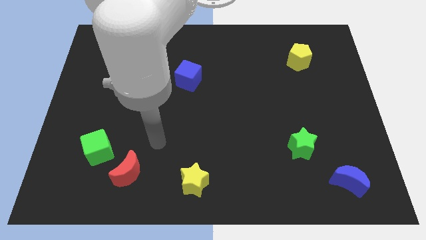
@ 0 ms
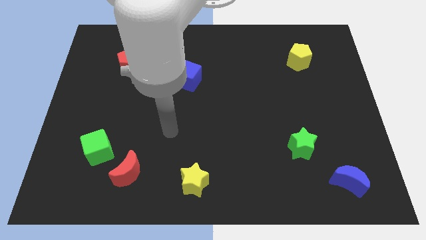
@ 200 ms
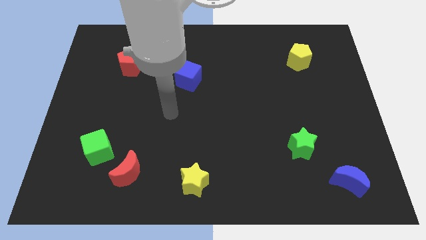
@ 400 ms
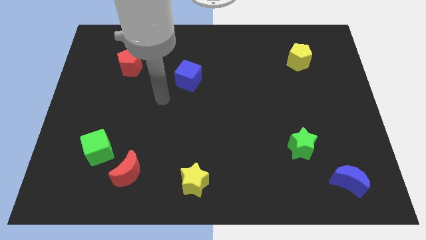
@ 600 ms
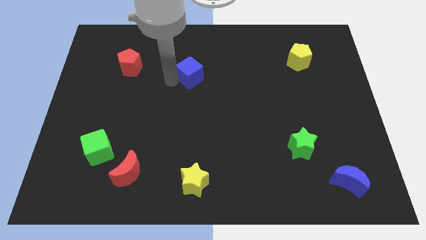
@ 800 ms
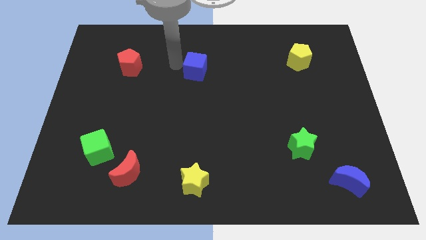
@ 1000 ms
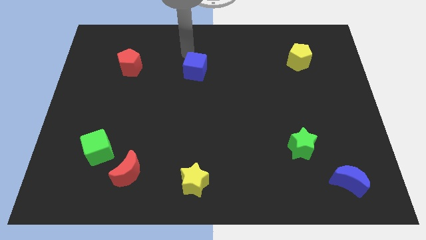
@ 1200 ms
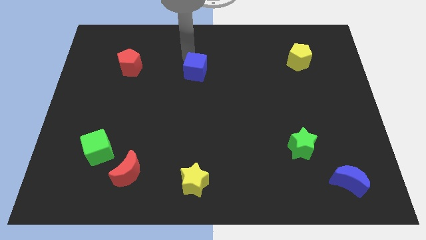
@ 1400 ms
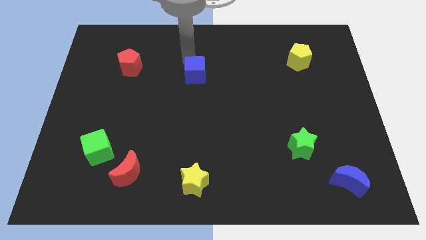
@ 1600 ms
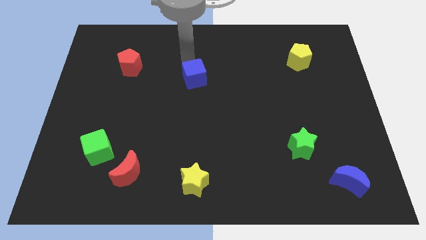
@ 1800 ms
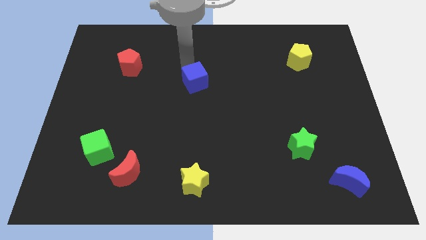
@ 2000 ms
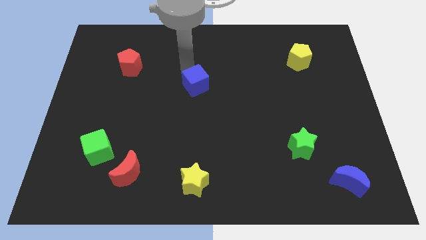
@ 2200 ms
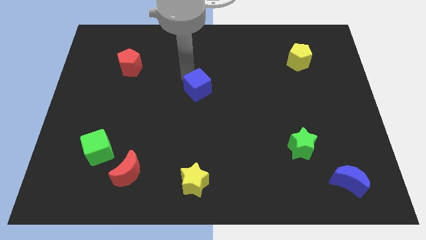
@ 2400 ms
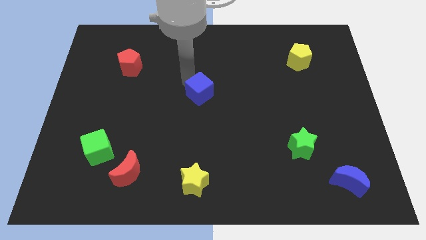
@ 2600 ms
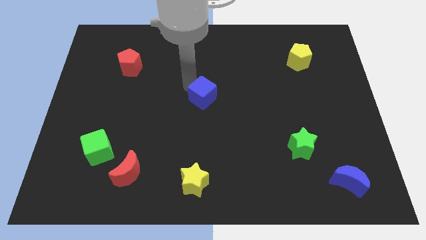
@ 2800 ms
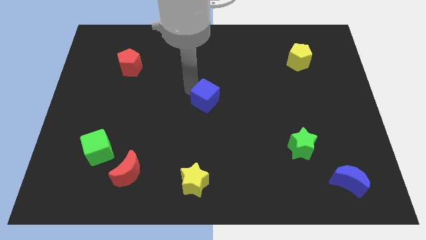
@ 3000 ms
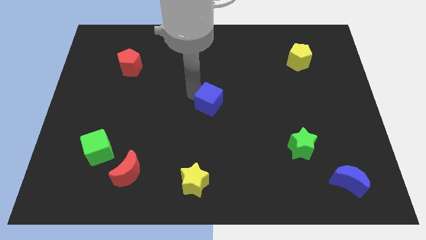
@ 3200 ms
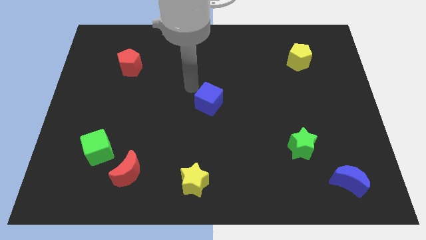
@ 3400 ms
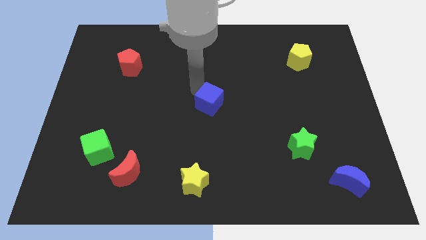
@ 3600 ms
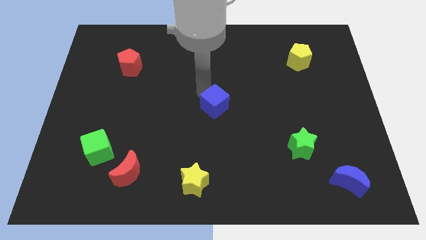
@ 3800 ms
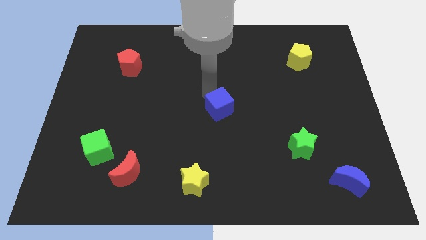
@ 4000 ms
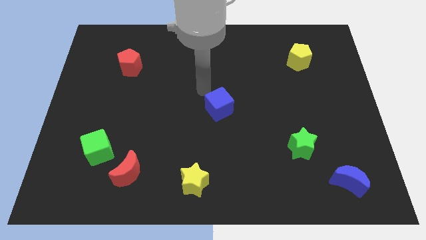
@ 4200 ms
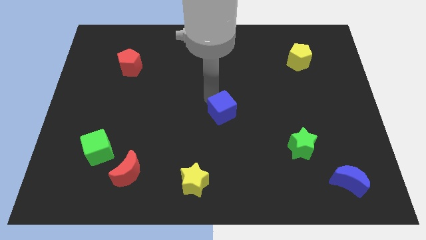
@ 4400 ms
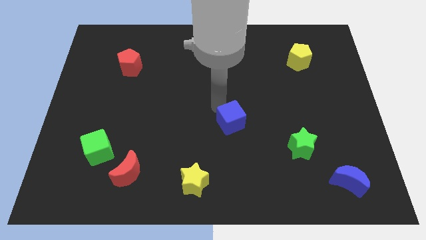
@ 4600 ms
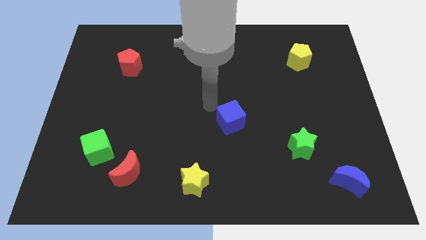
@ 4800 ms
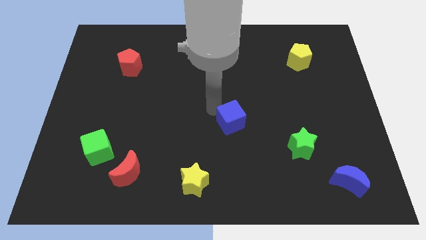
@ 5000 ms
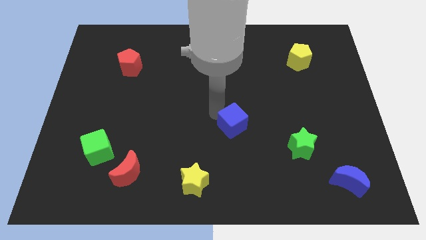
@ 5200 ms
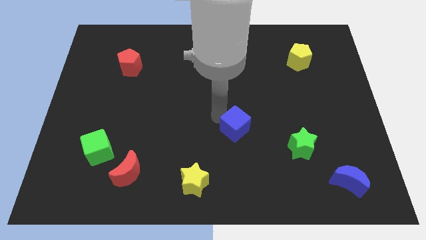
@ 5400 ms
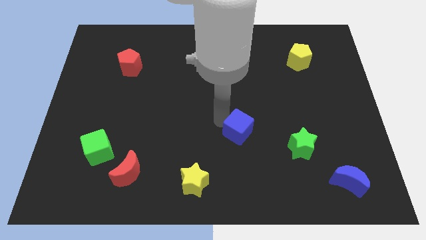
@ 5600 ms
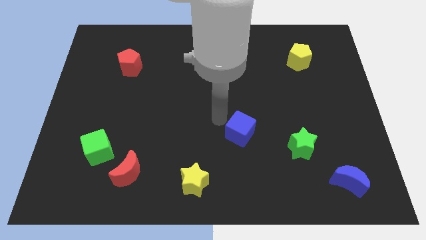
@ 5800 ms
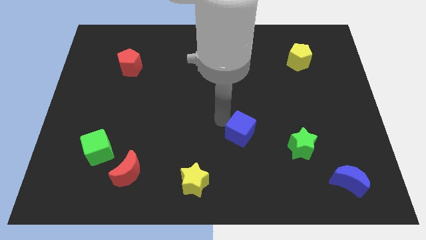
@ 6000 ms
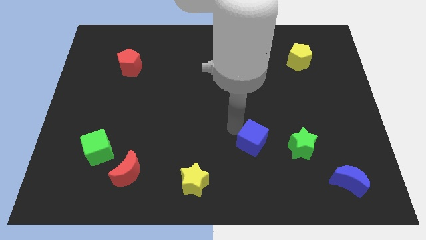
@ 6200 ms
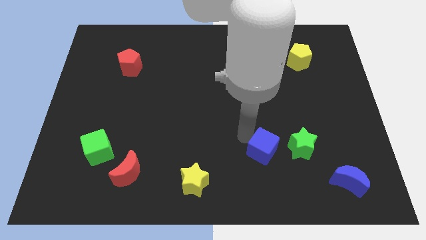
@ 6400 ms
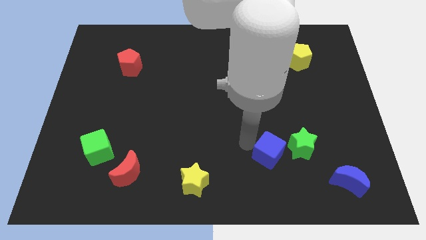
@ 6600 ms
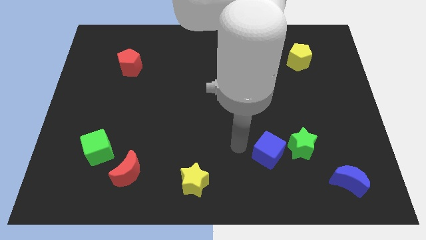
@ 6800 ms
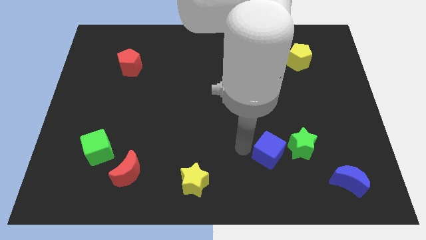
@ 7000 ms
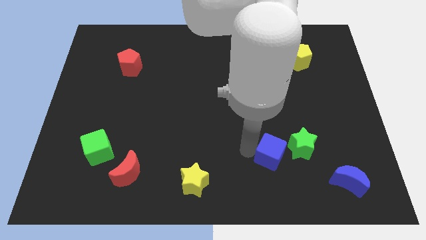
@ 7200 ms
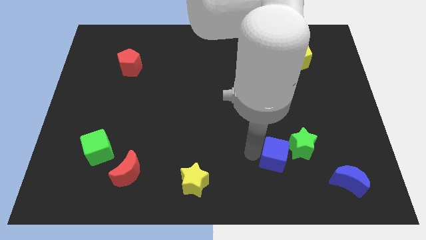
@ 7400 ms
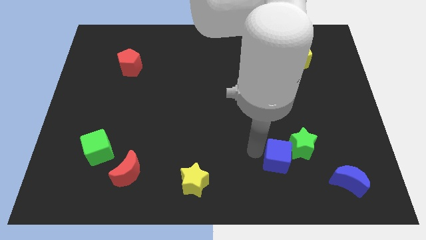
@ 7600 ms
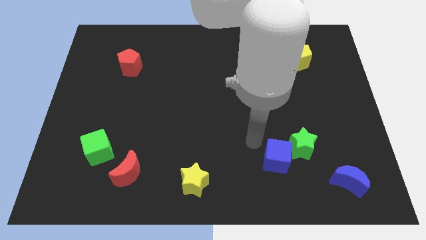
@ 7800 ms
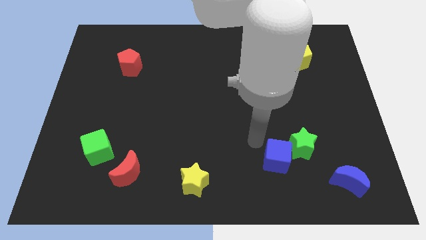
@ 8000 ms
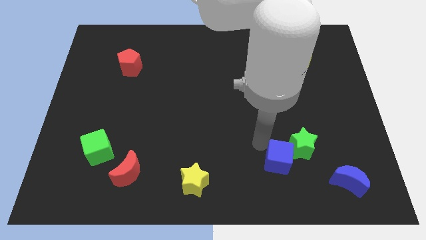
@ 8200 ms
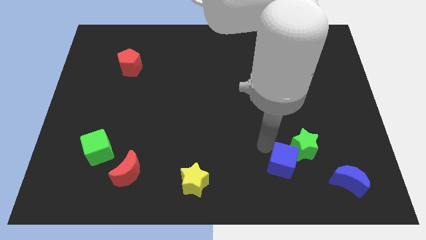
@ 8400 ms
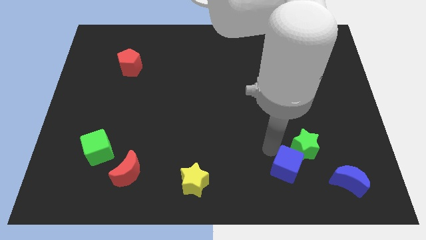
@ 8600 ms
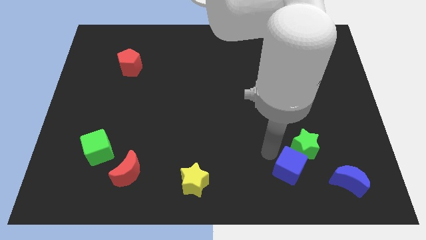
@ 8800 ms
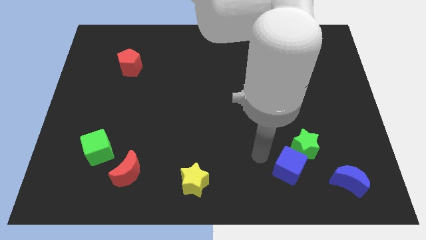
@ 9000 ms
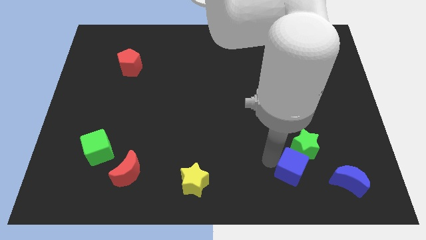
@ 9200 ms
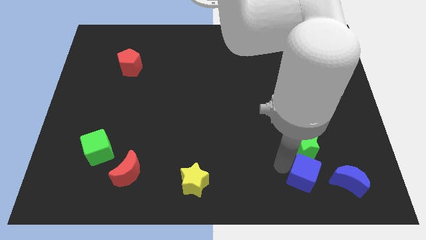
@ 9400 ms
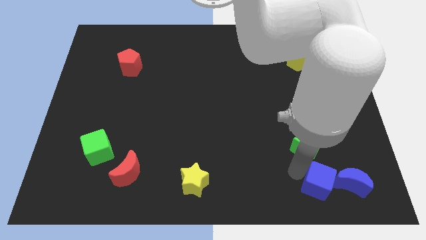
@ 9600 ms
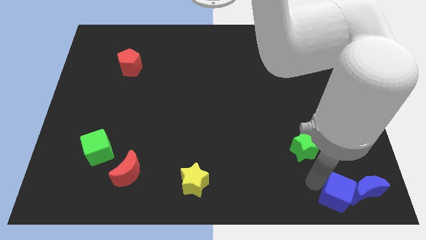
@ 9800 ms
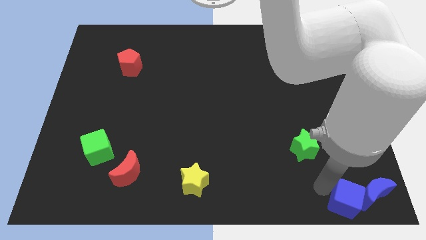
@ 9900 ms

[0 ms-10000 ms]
move the blue cube to the lower right corner

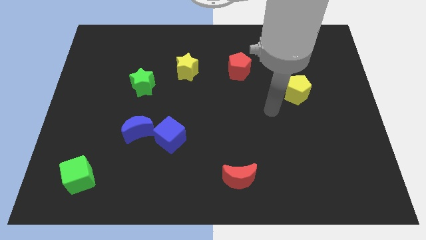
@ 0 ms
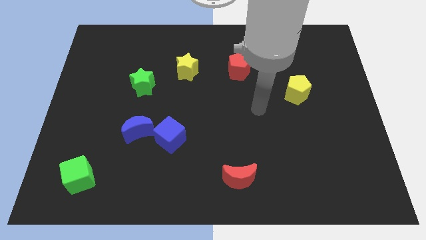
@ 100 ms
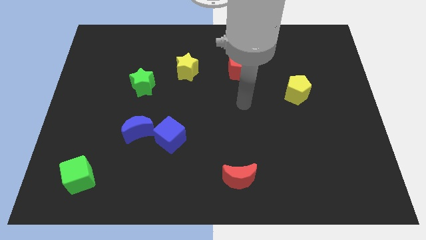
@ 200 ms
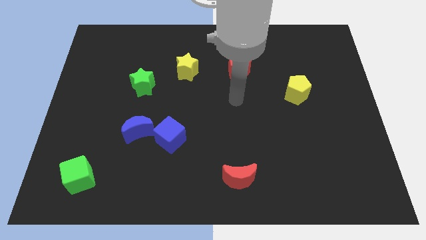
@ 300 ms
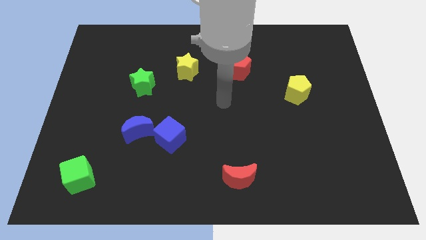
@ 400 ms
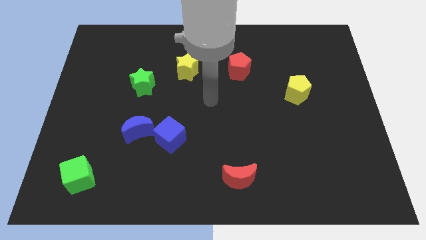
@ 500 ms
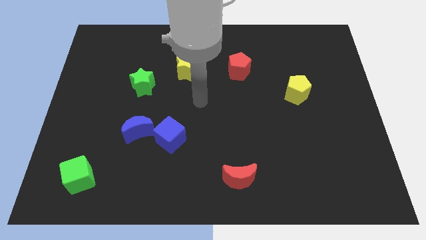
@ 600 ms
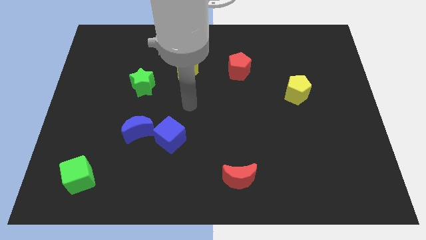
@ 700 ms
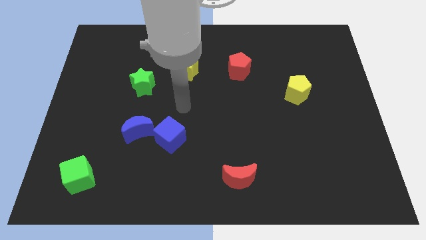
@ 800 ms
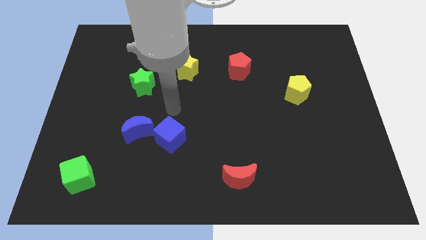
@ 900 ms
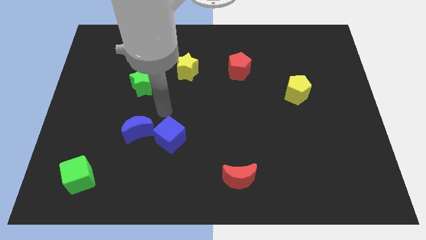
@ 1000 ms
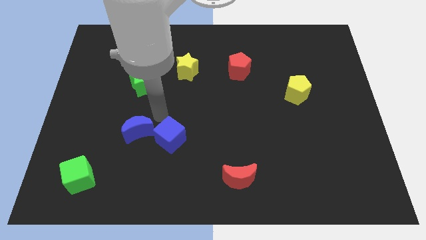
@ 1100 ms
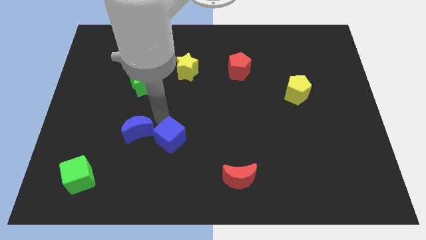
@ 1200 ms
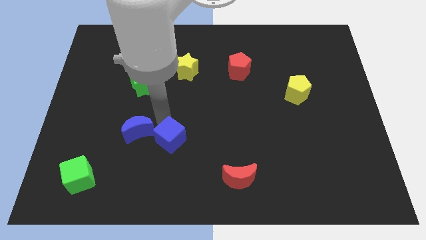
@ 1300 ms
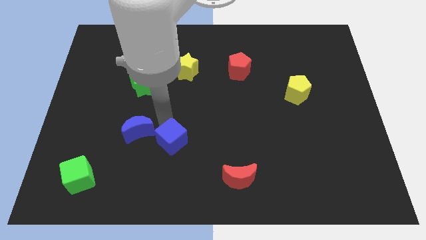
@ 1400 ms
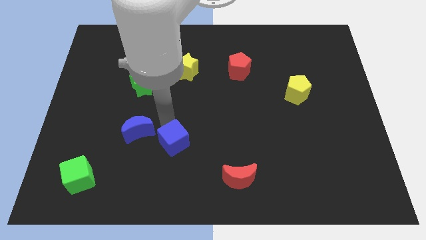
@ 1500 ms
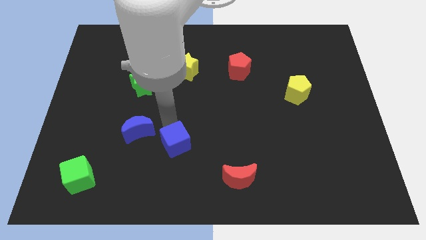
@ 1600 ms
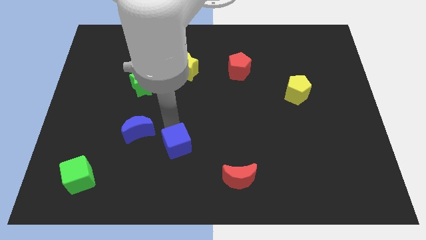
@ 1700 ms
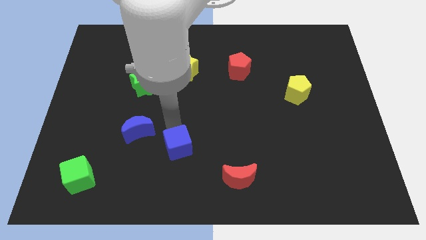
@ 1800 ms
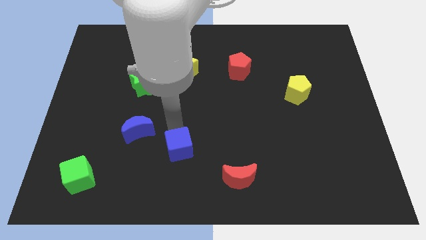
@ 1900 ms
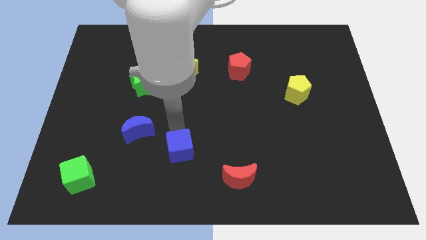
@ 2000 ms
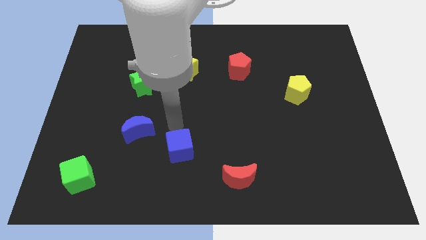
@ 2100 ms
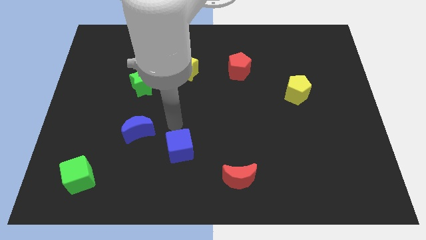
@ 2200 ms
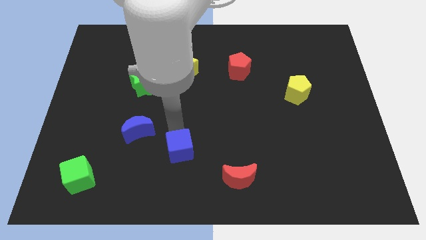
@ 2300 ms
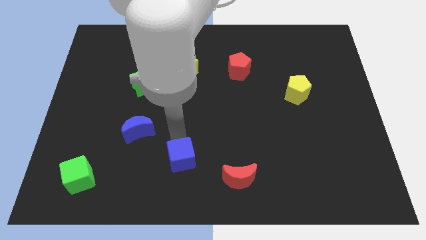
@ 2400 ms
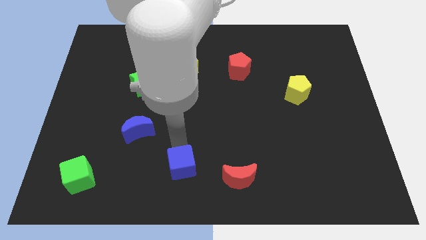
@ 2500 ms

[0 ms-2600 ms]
push the blue cube to the bottom
